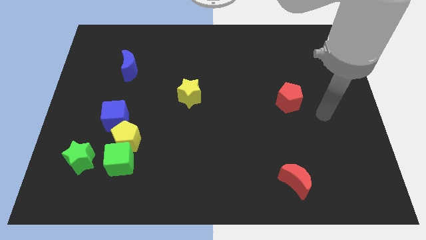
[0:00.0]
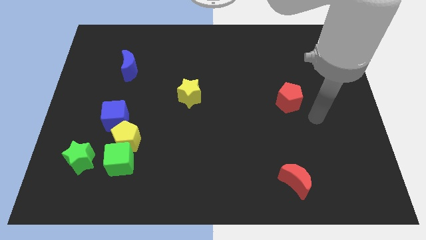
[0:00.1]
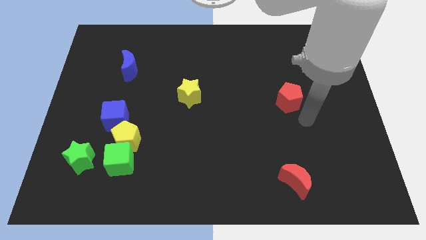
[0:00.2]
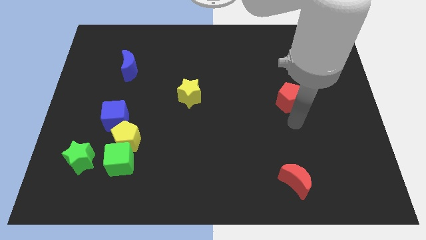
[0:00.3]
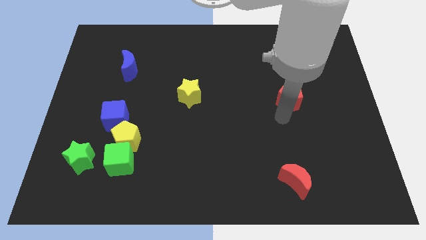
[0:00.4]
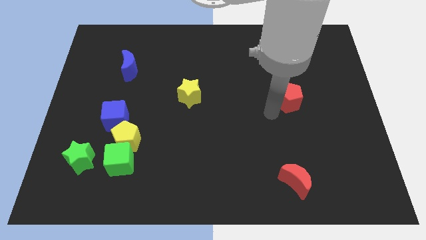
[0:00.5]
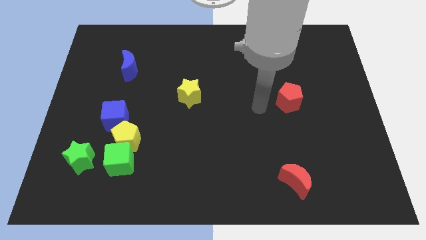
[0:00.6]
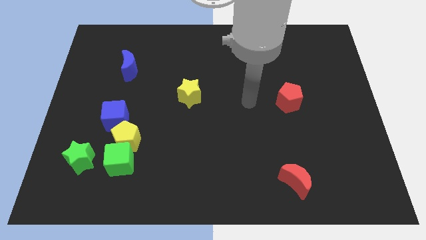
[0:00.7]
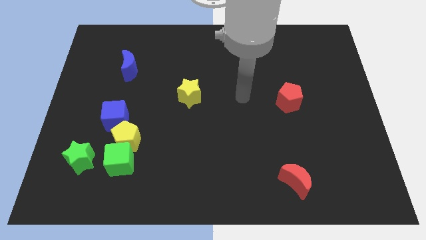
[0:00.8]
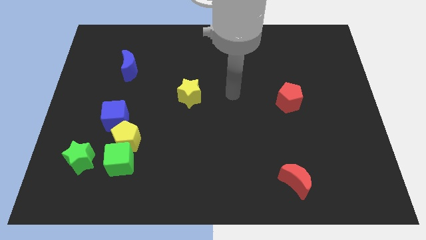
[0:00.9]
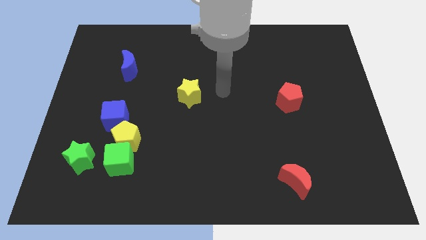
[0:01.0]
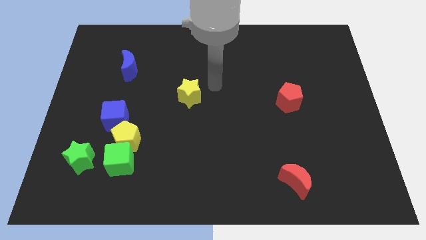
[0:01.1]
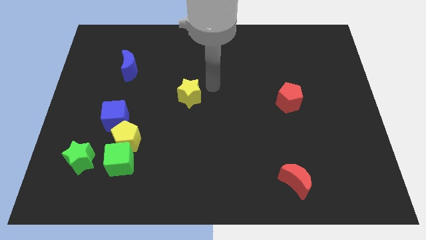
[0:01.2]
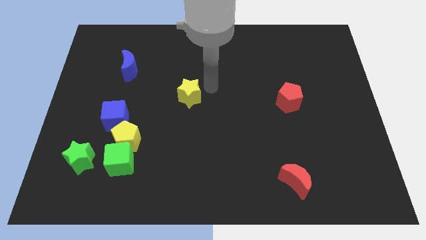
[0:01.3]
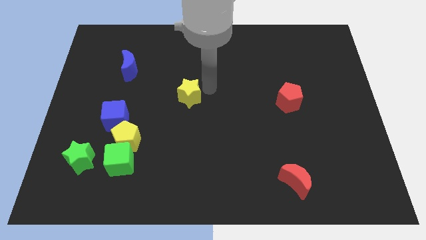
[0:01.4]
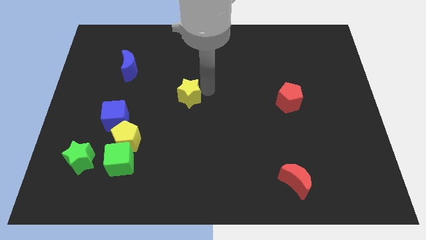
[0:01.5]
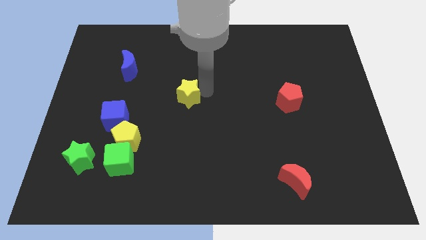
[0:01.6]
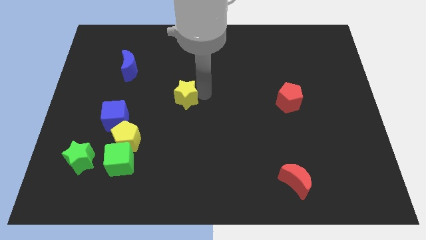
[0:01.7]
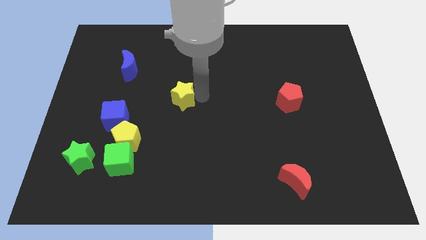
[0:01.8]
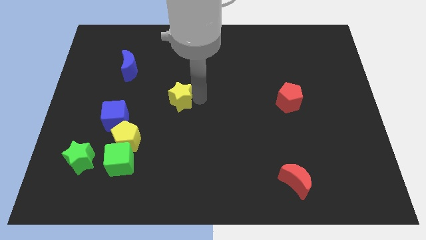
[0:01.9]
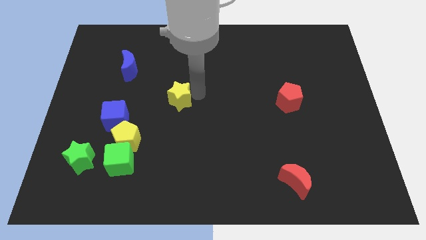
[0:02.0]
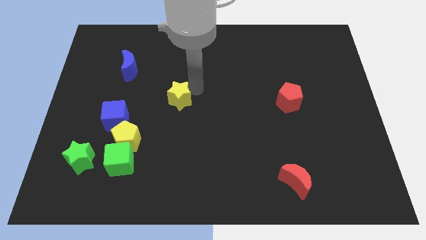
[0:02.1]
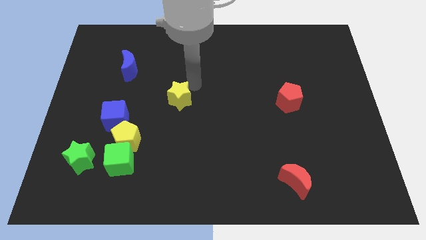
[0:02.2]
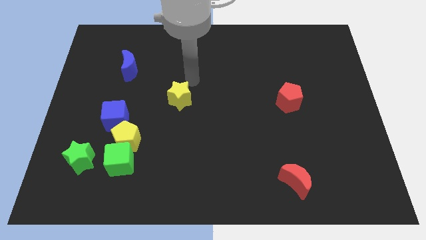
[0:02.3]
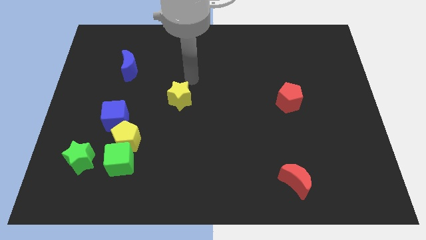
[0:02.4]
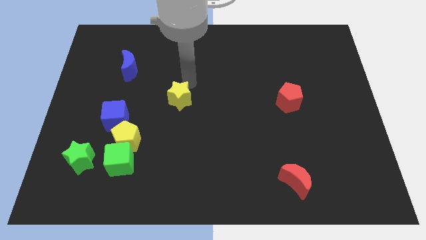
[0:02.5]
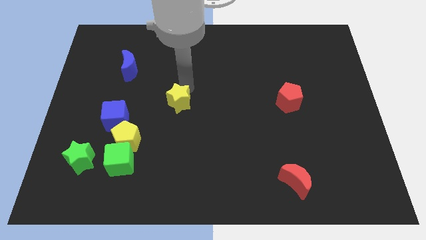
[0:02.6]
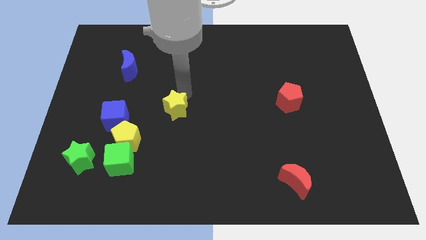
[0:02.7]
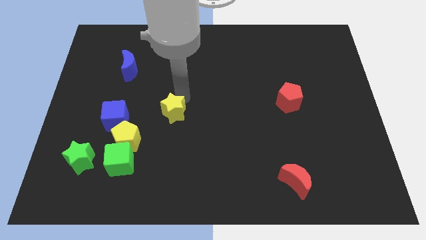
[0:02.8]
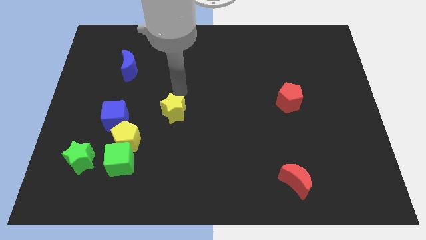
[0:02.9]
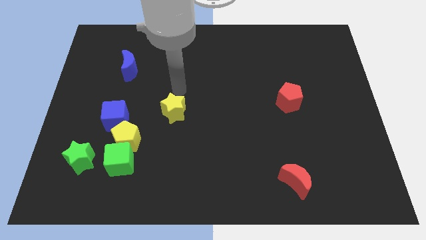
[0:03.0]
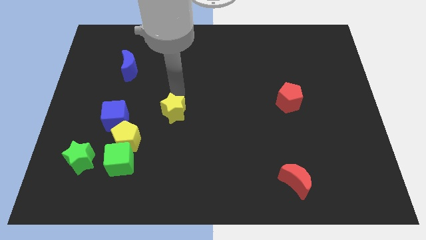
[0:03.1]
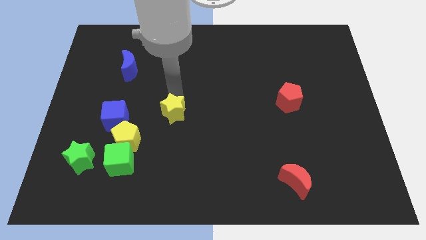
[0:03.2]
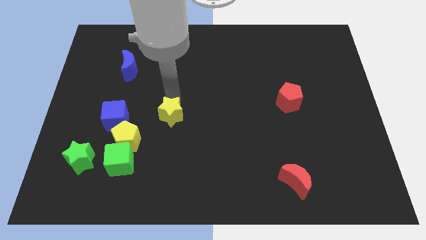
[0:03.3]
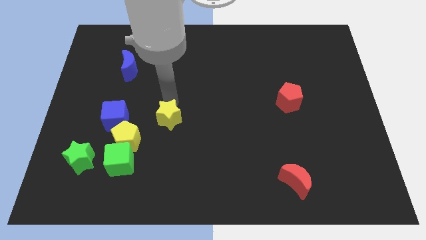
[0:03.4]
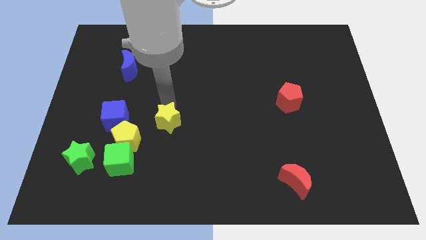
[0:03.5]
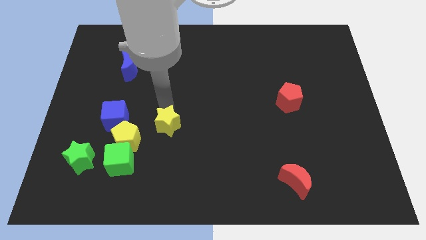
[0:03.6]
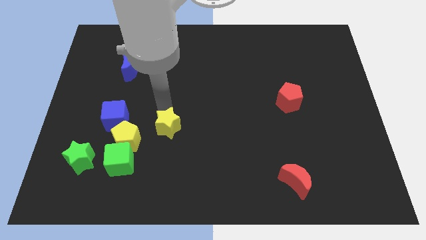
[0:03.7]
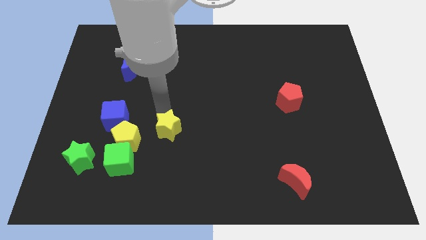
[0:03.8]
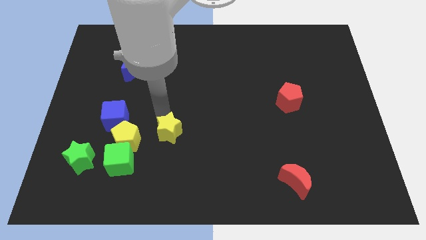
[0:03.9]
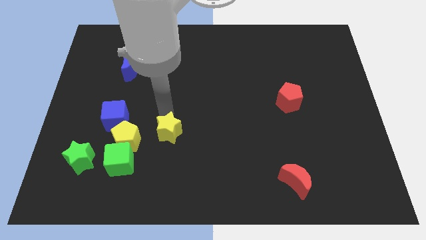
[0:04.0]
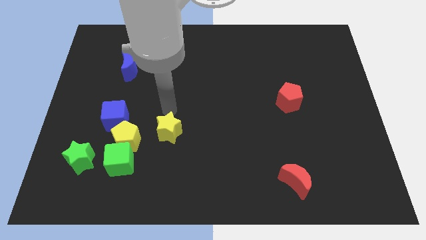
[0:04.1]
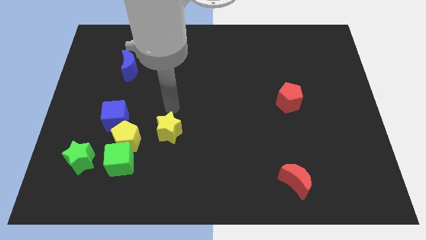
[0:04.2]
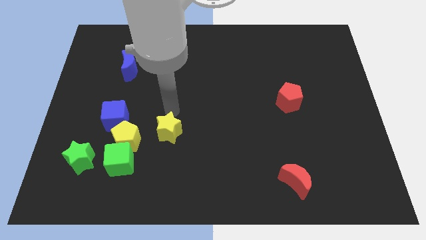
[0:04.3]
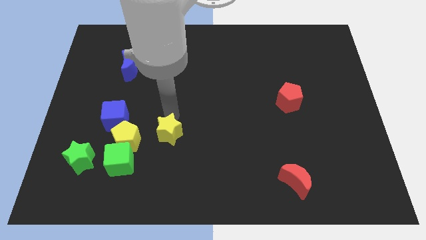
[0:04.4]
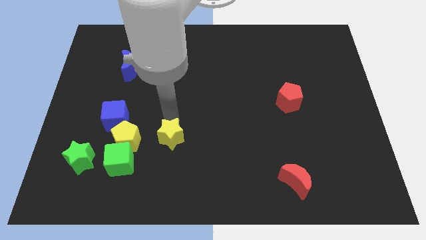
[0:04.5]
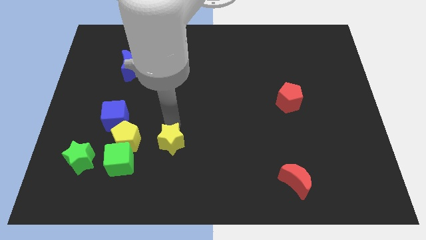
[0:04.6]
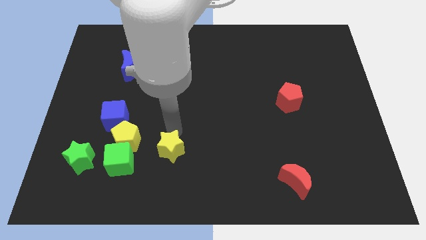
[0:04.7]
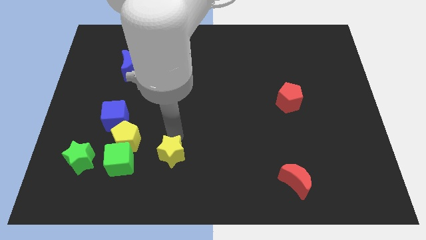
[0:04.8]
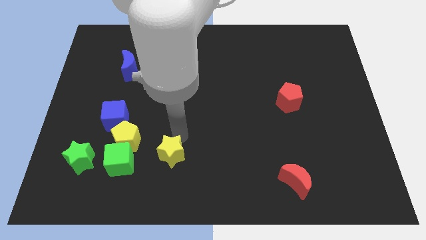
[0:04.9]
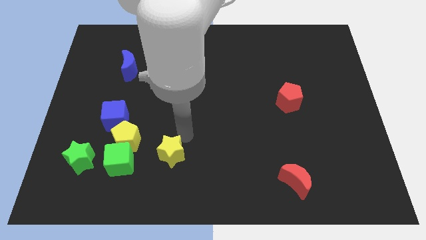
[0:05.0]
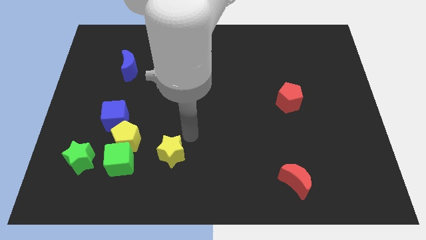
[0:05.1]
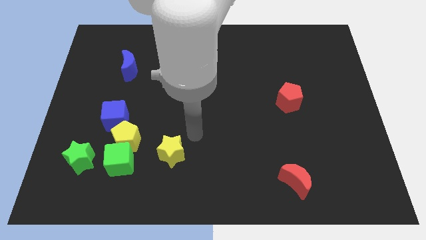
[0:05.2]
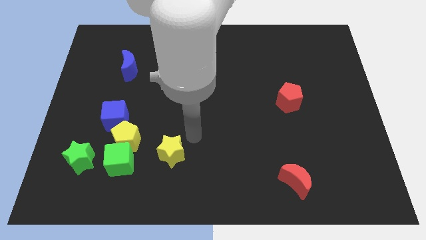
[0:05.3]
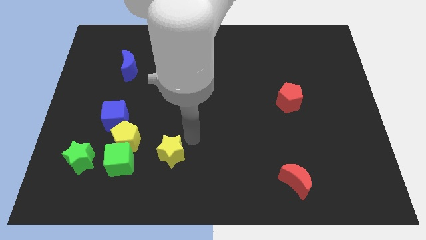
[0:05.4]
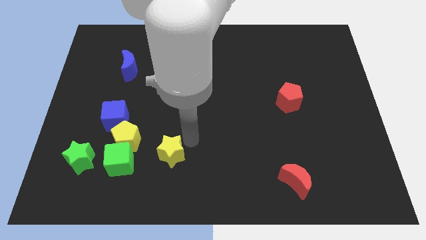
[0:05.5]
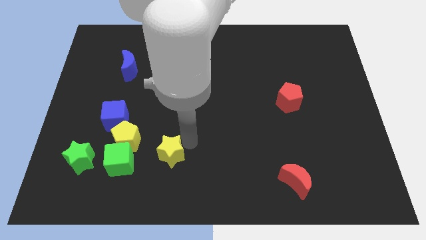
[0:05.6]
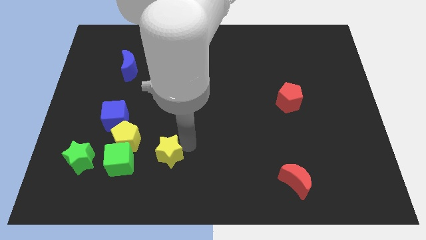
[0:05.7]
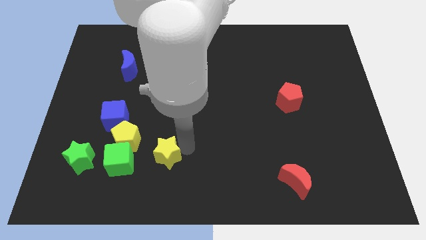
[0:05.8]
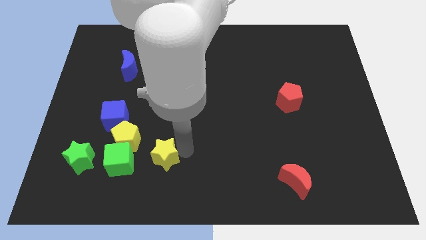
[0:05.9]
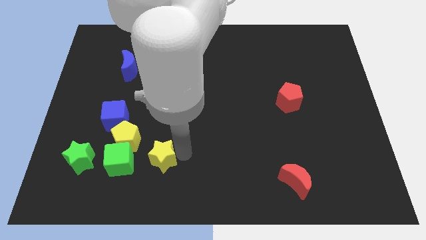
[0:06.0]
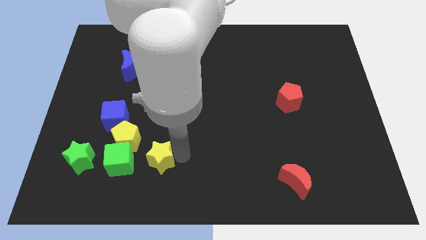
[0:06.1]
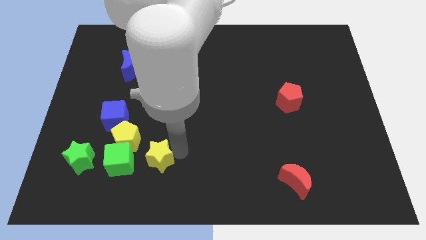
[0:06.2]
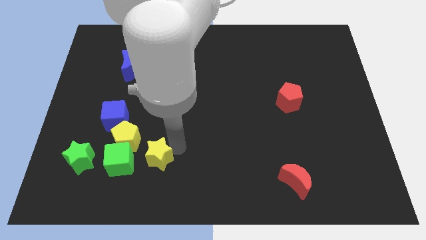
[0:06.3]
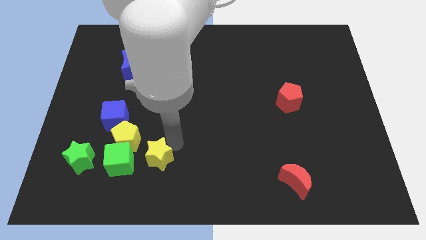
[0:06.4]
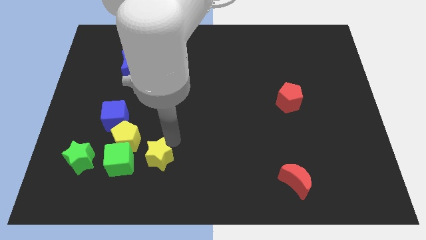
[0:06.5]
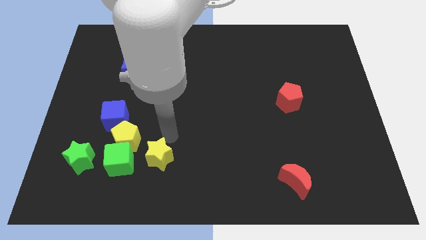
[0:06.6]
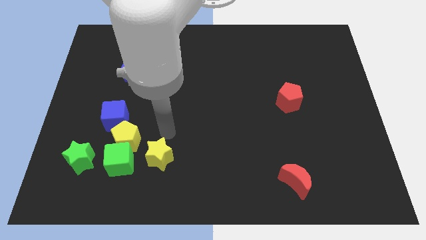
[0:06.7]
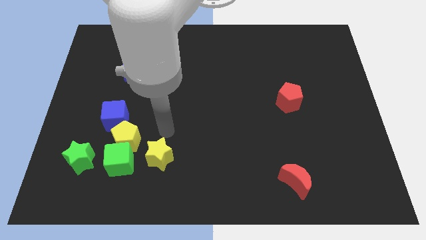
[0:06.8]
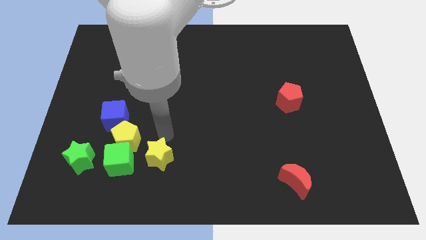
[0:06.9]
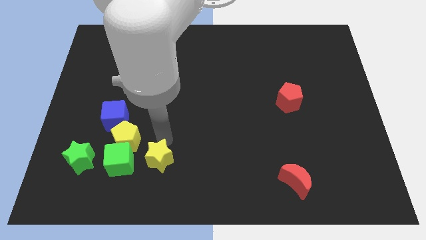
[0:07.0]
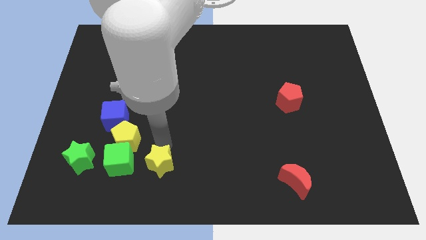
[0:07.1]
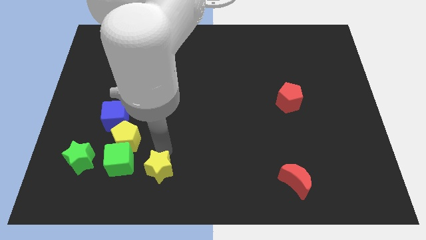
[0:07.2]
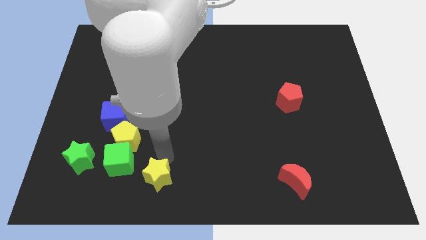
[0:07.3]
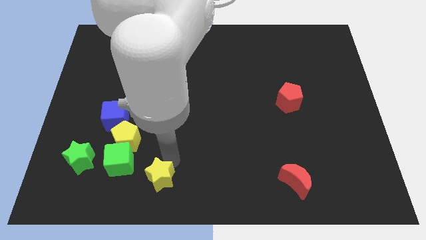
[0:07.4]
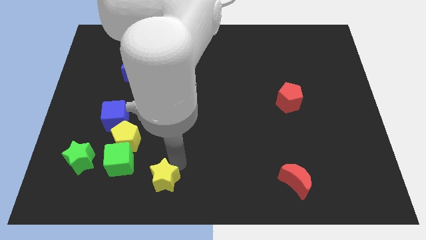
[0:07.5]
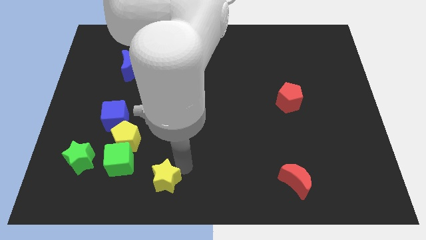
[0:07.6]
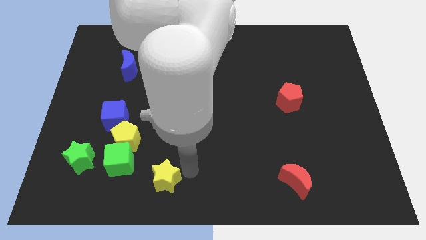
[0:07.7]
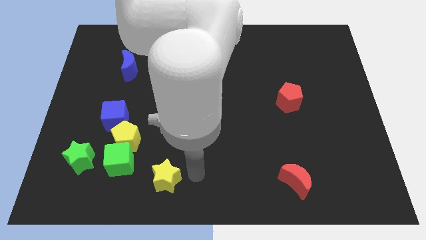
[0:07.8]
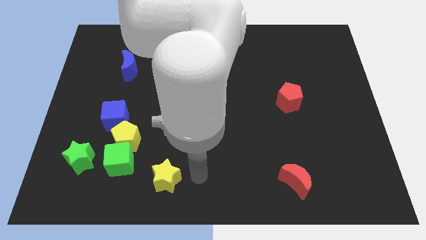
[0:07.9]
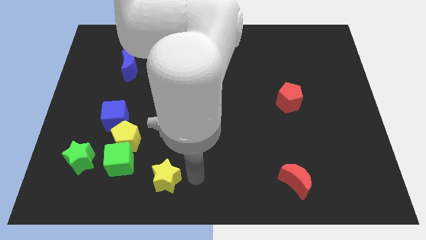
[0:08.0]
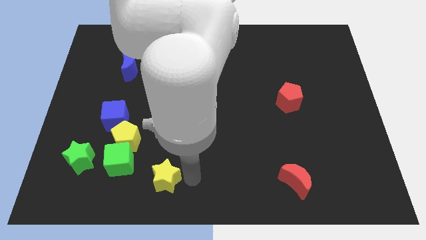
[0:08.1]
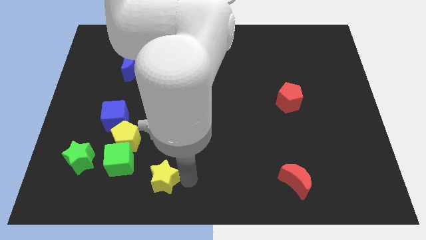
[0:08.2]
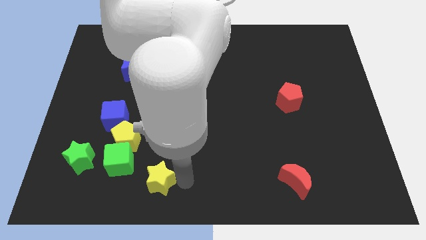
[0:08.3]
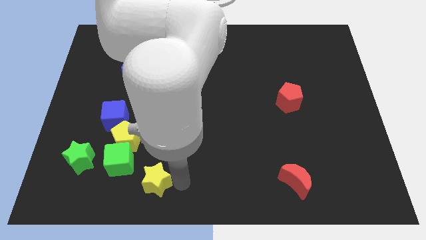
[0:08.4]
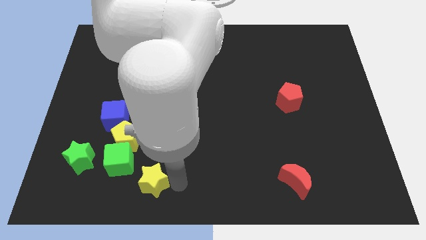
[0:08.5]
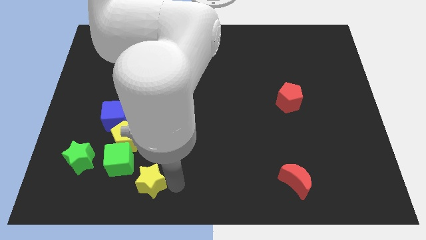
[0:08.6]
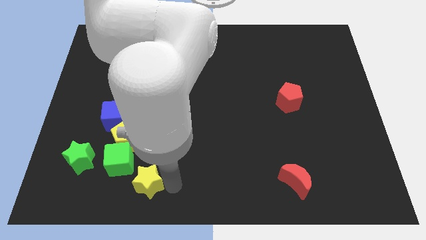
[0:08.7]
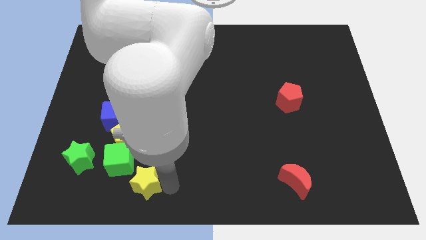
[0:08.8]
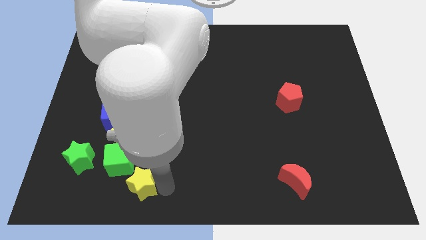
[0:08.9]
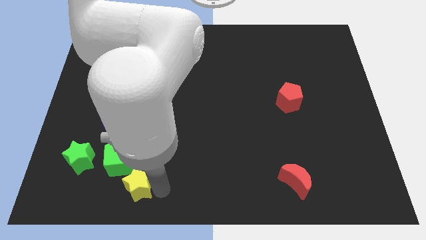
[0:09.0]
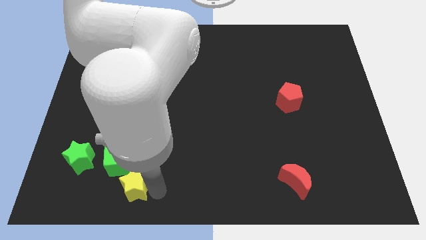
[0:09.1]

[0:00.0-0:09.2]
move the yellow star down and to the left
